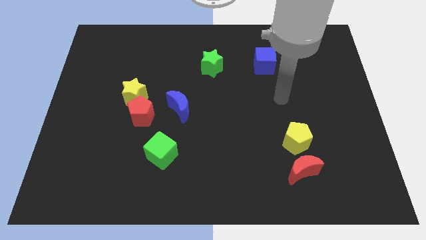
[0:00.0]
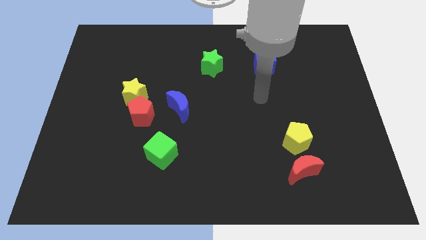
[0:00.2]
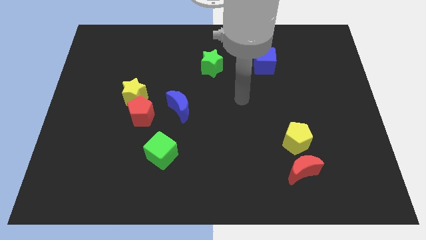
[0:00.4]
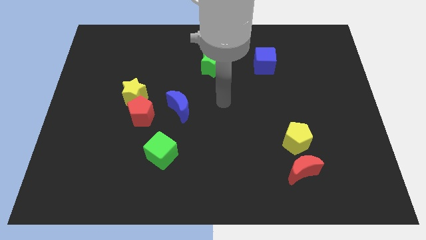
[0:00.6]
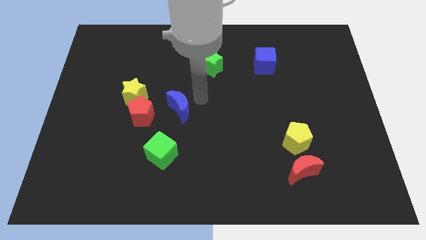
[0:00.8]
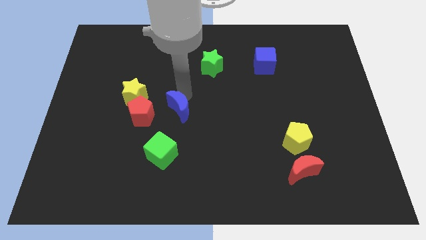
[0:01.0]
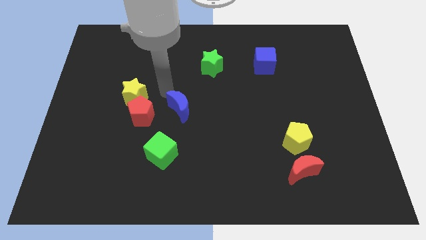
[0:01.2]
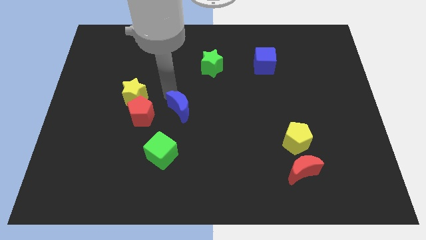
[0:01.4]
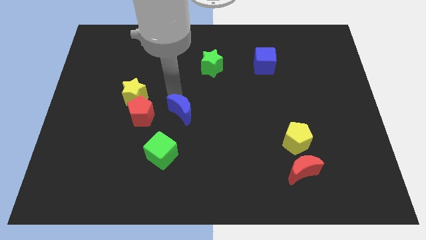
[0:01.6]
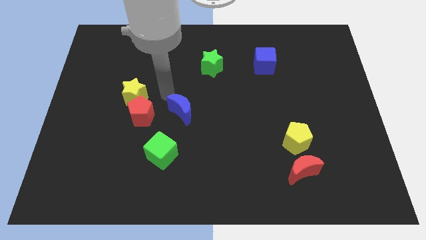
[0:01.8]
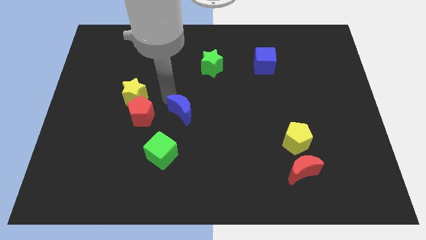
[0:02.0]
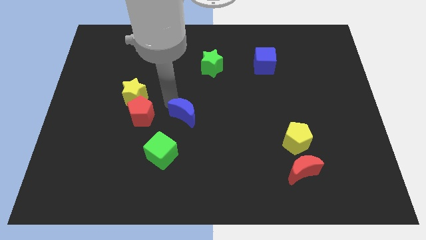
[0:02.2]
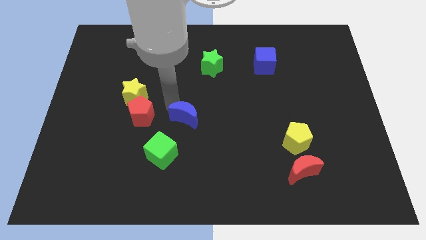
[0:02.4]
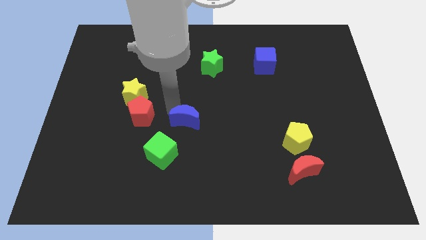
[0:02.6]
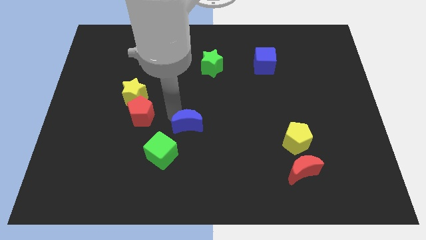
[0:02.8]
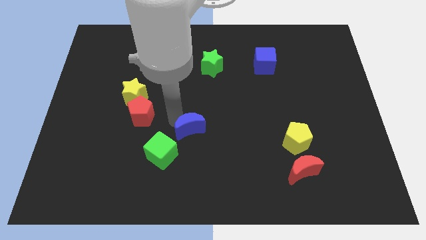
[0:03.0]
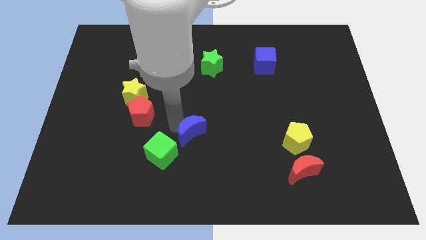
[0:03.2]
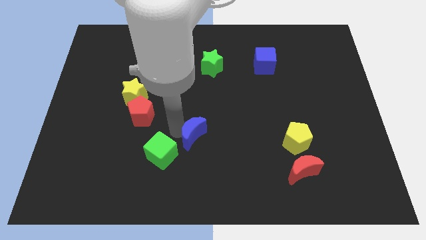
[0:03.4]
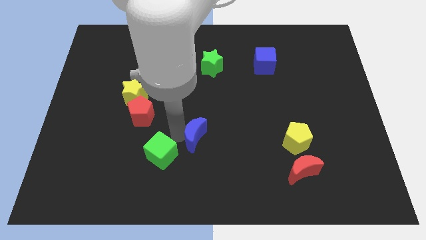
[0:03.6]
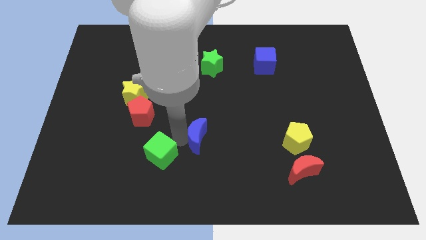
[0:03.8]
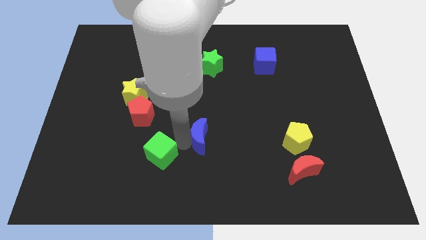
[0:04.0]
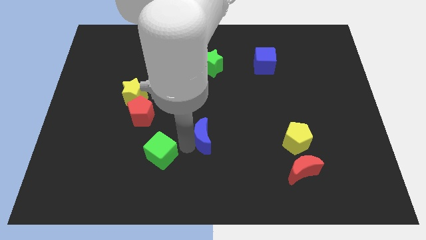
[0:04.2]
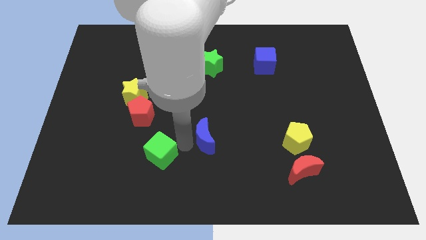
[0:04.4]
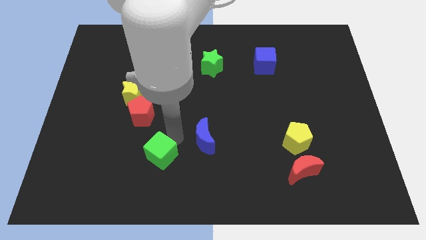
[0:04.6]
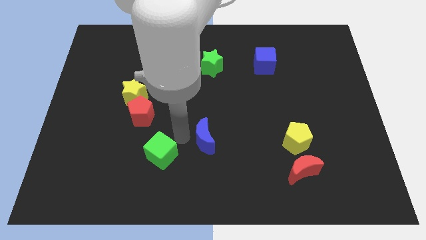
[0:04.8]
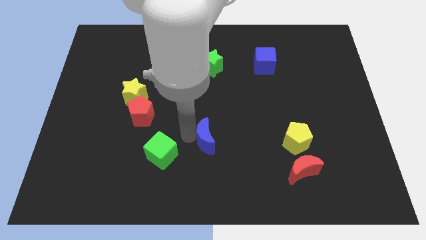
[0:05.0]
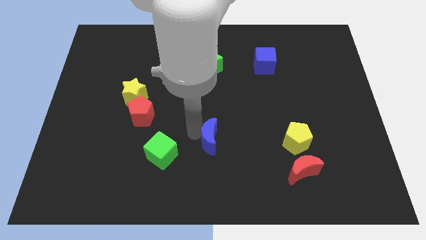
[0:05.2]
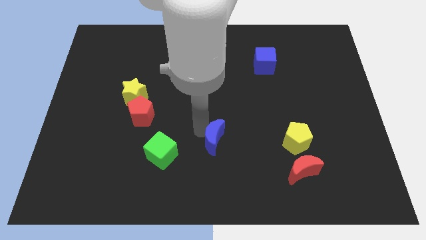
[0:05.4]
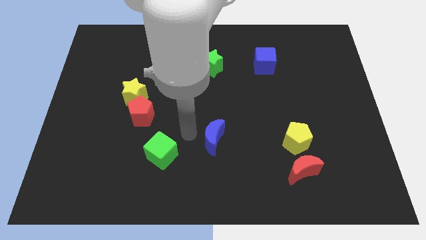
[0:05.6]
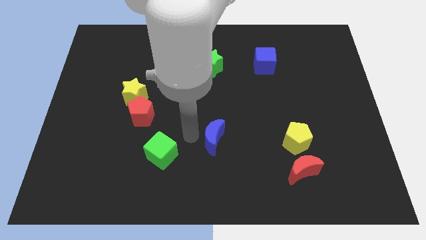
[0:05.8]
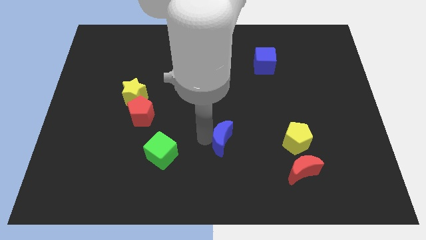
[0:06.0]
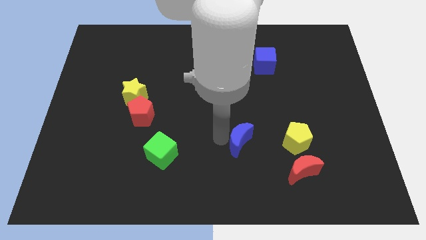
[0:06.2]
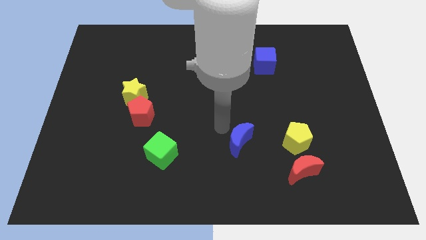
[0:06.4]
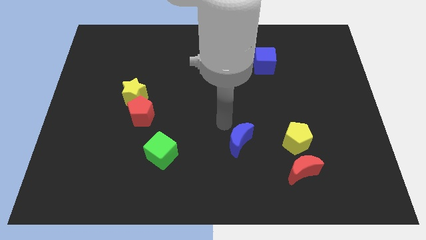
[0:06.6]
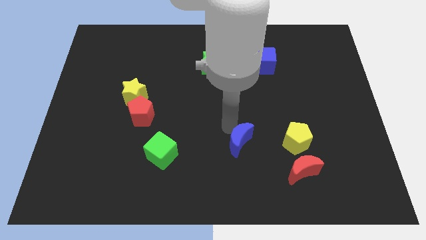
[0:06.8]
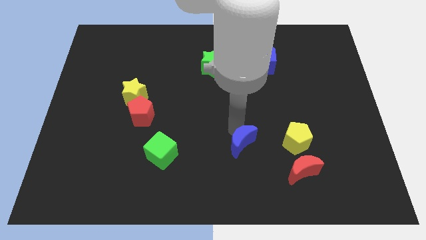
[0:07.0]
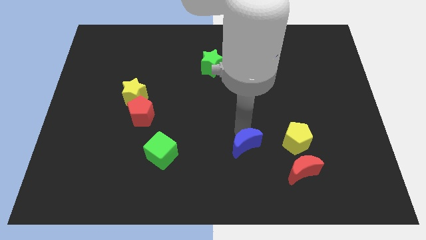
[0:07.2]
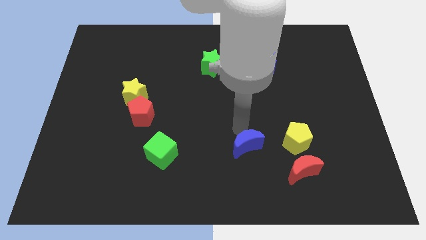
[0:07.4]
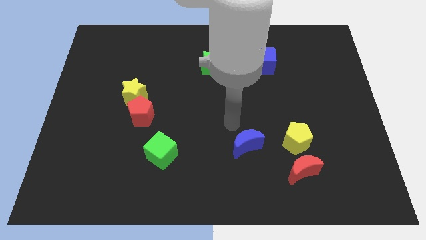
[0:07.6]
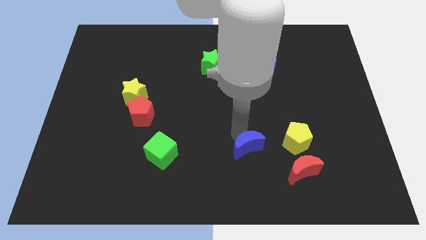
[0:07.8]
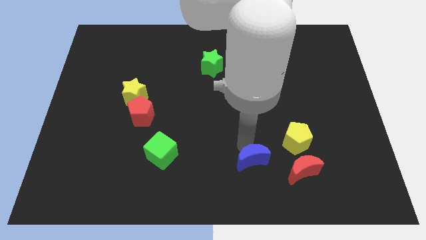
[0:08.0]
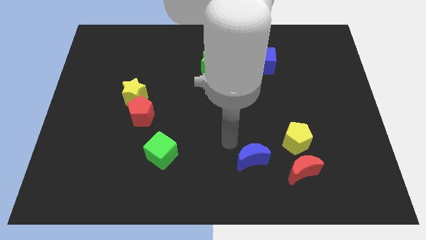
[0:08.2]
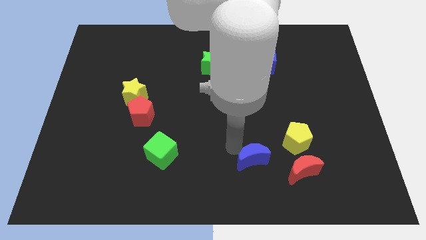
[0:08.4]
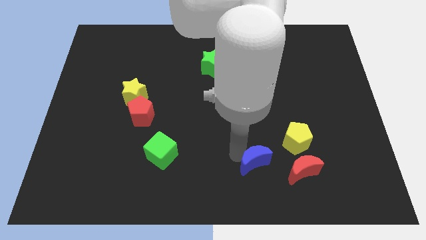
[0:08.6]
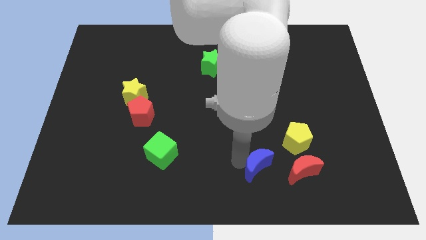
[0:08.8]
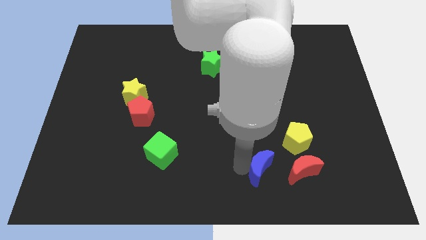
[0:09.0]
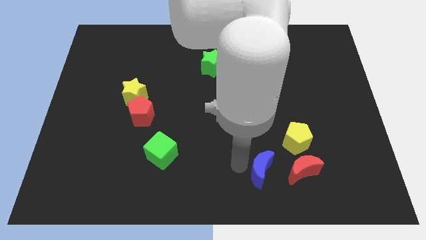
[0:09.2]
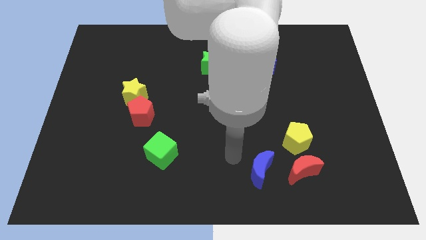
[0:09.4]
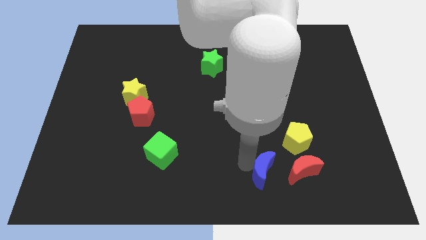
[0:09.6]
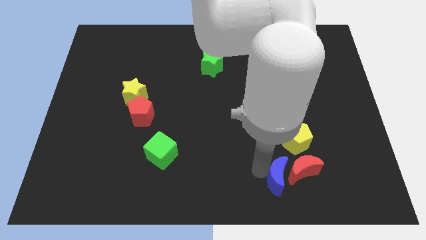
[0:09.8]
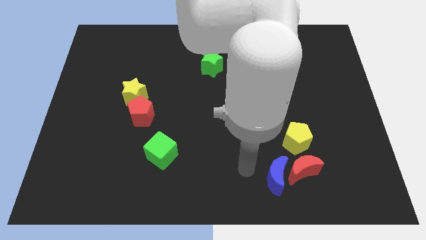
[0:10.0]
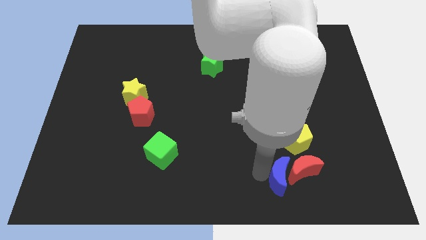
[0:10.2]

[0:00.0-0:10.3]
move the blue moon to the bottom side of the yellow pentagon

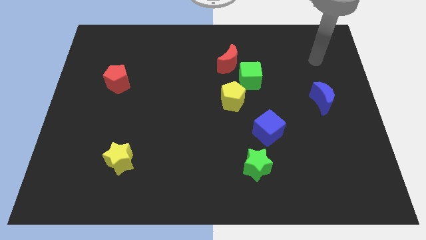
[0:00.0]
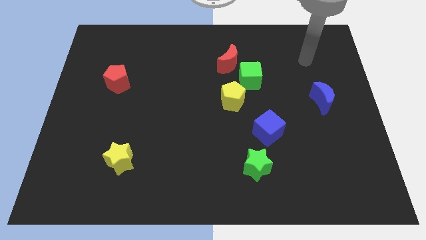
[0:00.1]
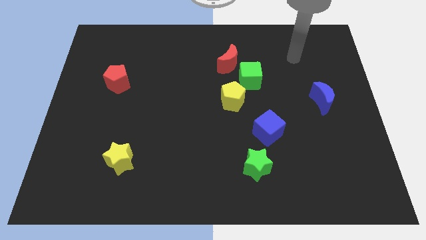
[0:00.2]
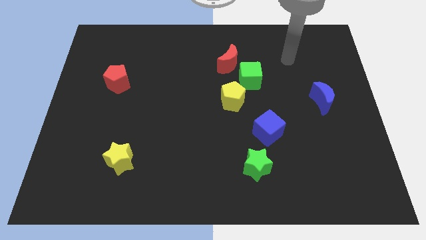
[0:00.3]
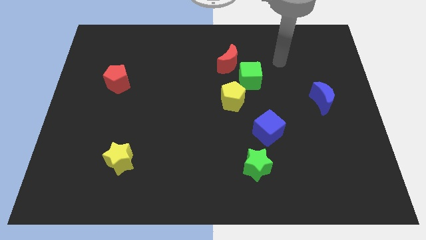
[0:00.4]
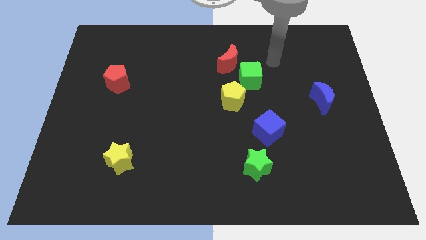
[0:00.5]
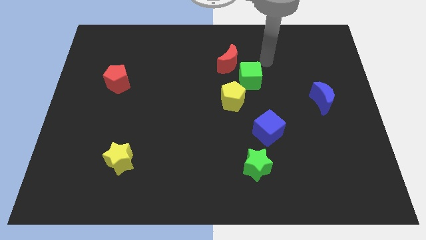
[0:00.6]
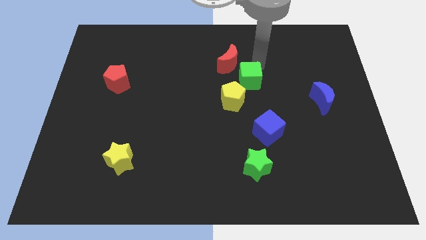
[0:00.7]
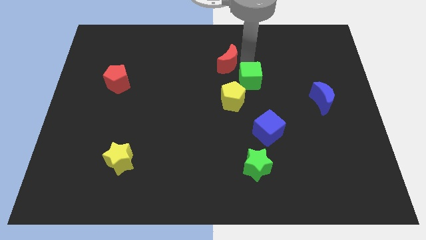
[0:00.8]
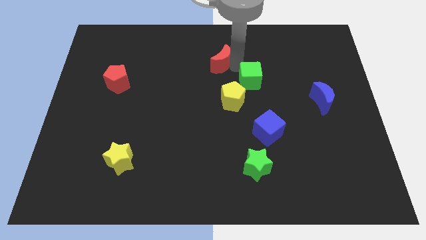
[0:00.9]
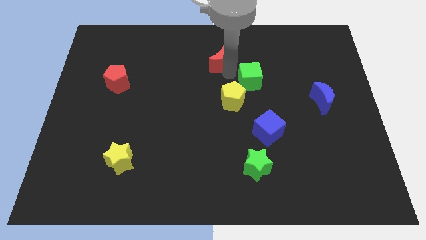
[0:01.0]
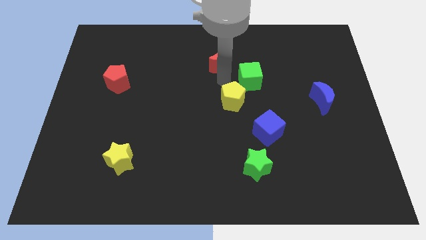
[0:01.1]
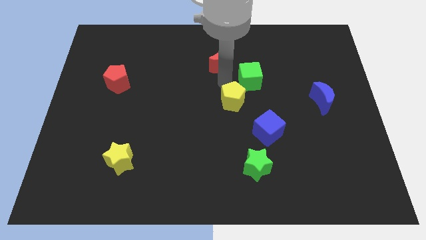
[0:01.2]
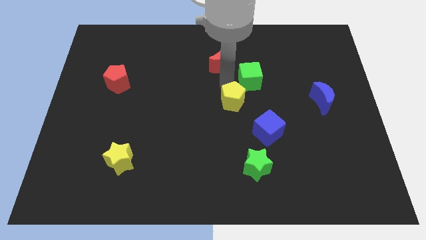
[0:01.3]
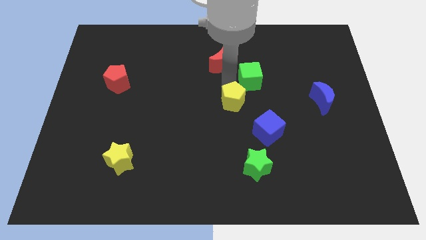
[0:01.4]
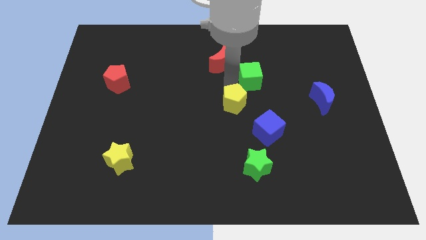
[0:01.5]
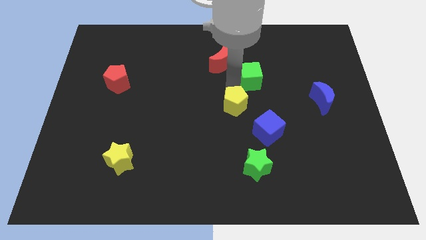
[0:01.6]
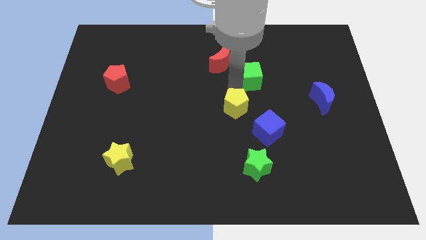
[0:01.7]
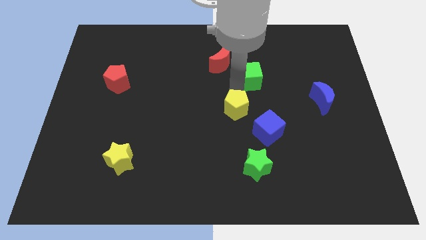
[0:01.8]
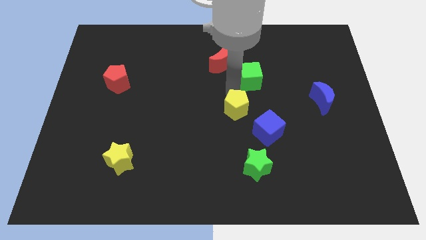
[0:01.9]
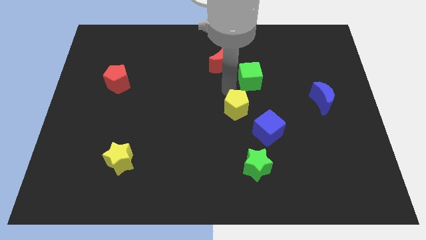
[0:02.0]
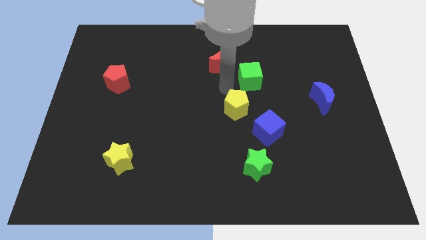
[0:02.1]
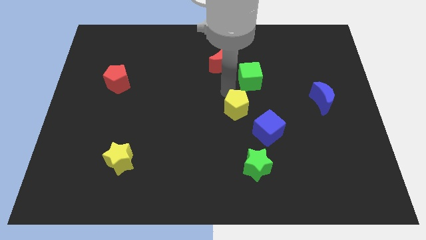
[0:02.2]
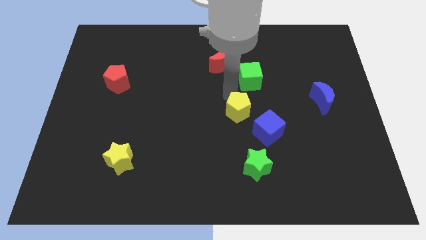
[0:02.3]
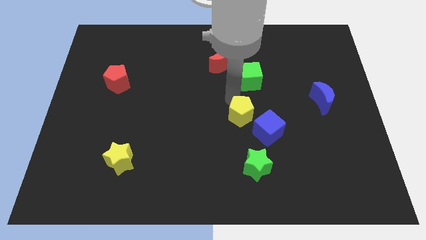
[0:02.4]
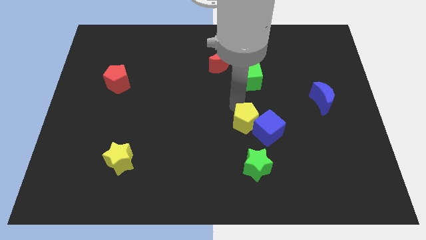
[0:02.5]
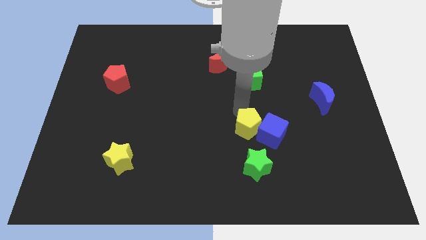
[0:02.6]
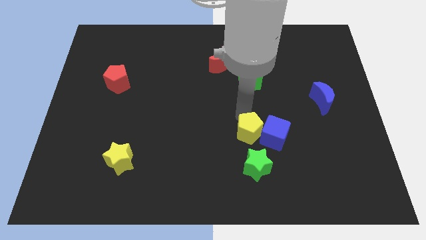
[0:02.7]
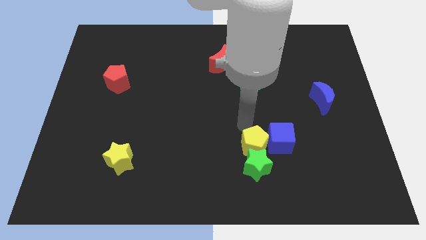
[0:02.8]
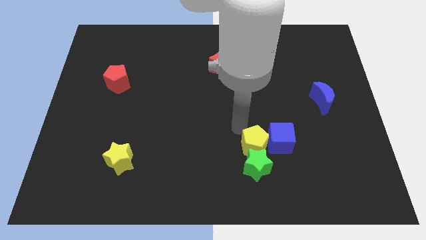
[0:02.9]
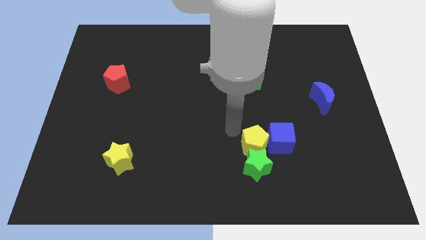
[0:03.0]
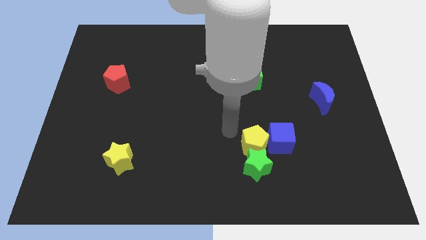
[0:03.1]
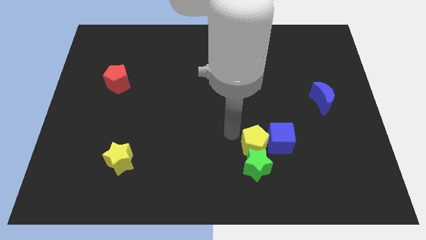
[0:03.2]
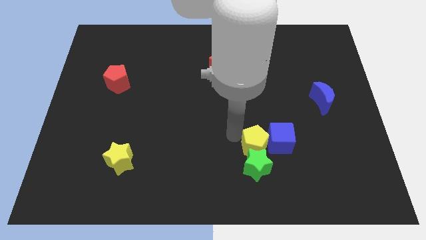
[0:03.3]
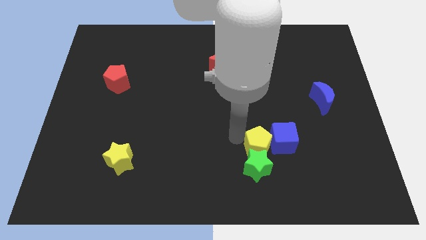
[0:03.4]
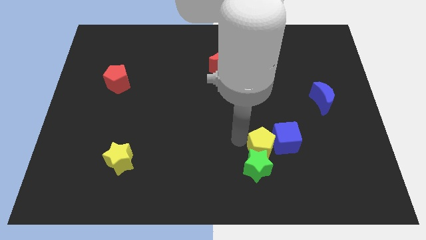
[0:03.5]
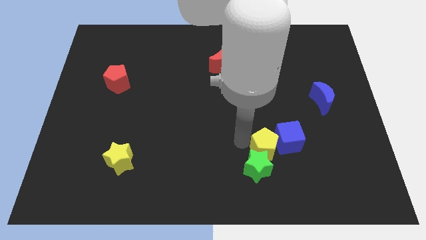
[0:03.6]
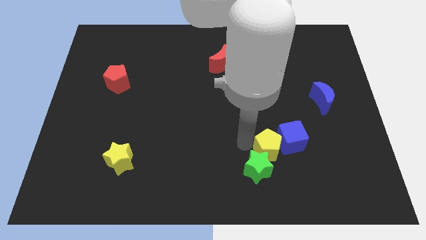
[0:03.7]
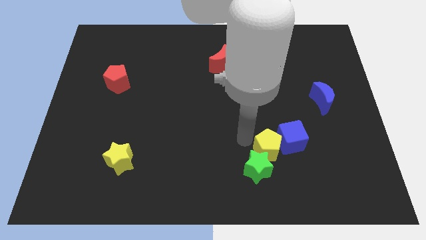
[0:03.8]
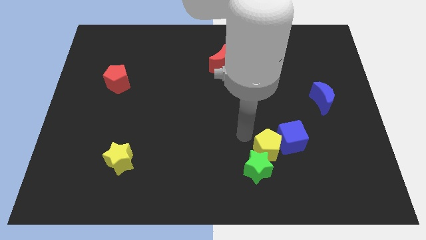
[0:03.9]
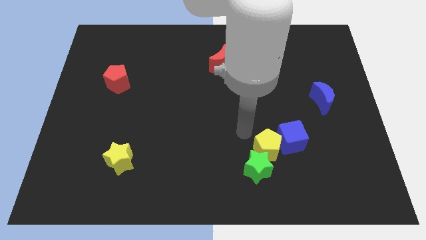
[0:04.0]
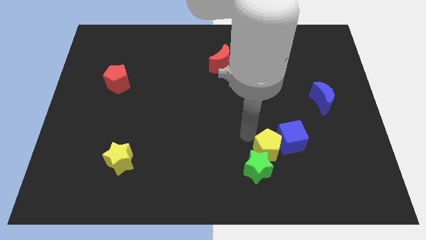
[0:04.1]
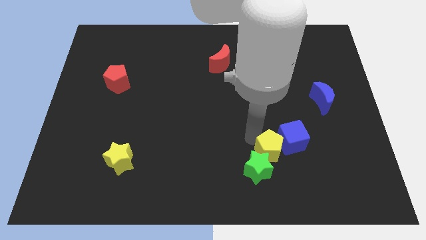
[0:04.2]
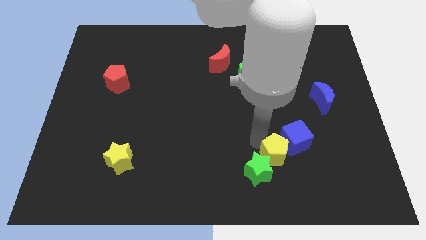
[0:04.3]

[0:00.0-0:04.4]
push the yellow pentagon to the right of the green star
